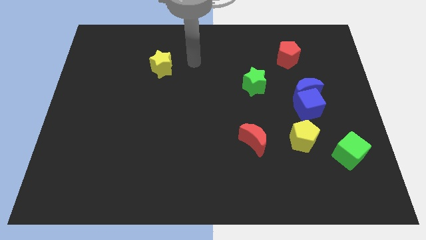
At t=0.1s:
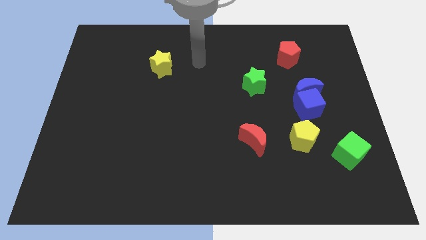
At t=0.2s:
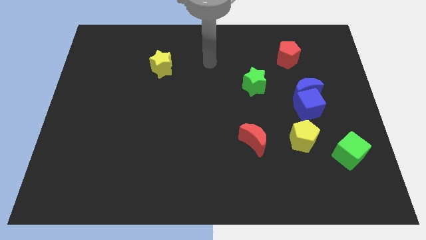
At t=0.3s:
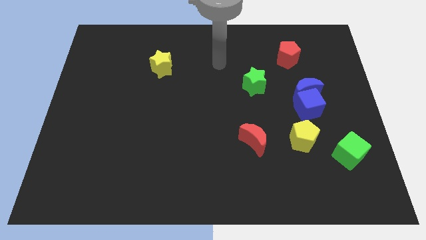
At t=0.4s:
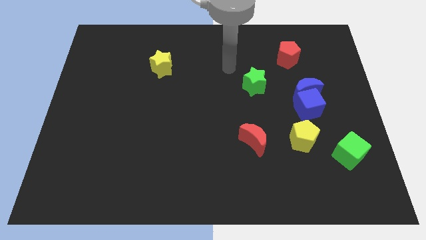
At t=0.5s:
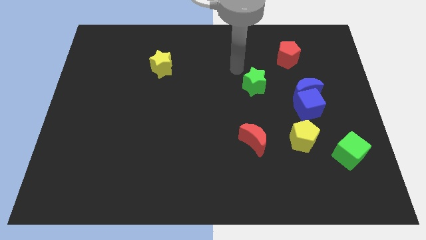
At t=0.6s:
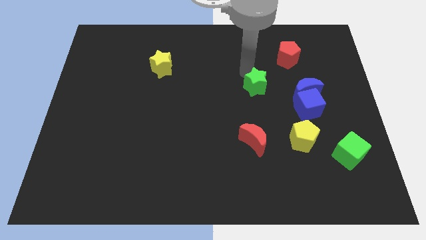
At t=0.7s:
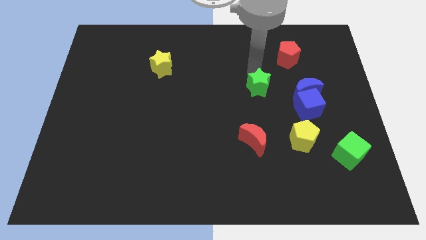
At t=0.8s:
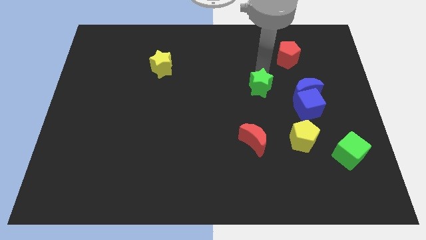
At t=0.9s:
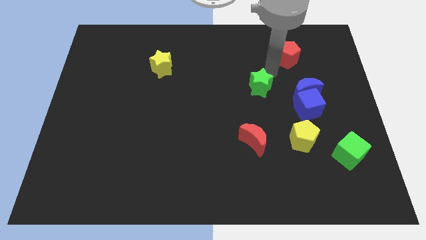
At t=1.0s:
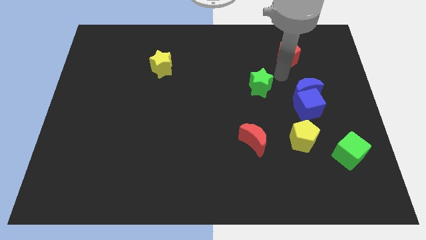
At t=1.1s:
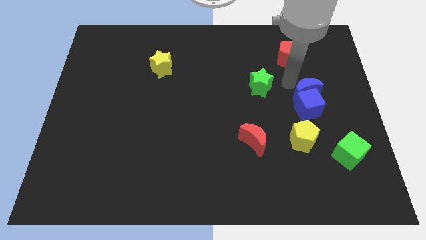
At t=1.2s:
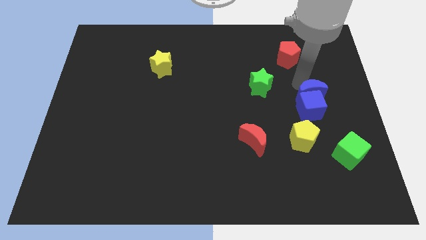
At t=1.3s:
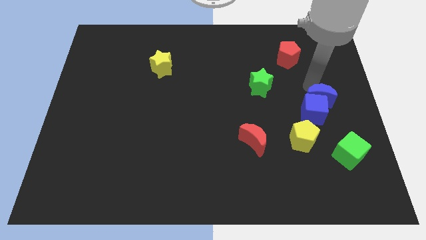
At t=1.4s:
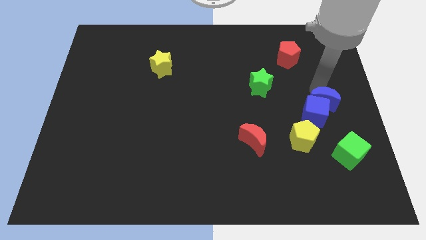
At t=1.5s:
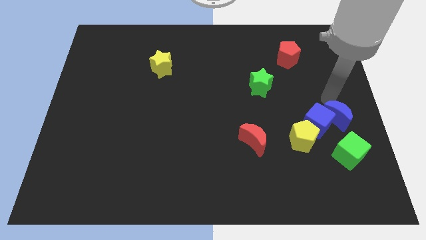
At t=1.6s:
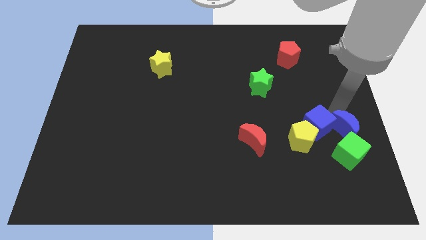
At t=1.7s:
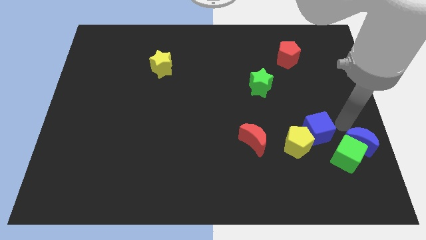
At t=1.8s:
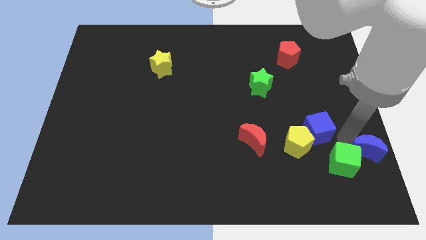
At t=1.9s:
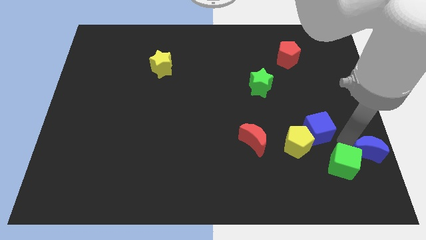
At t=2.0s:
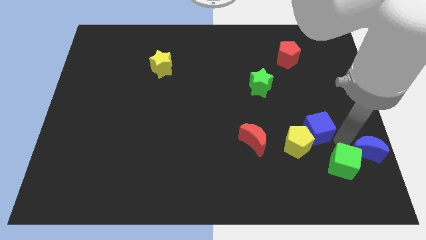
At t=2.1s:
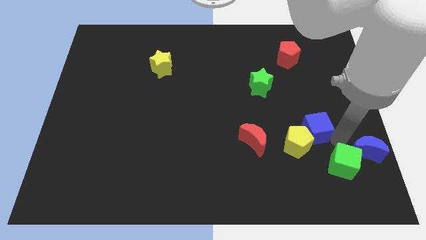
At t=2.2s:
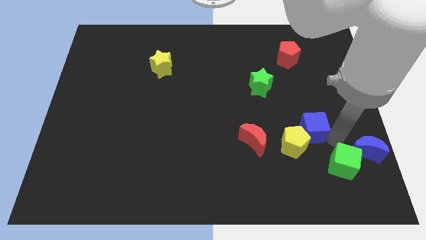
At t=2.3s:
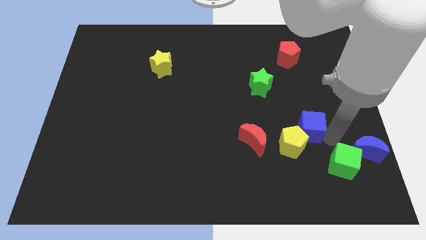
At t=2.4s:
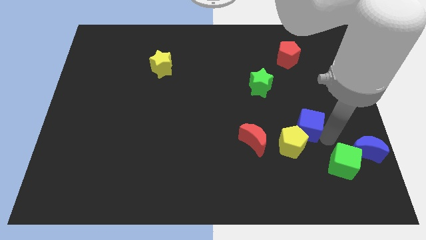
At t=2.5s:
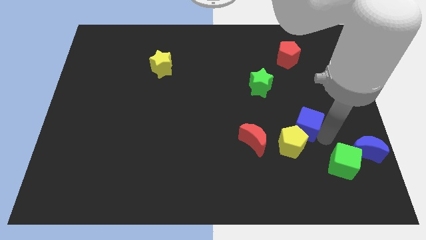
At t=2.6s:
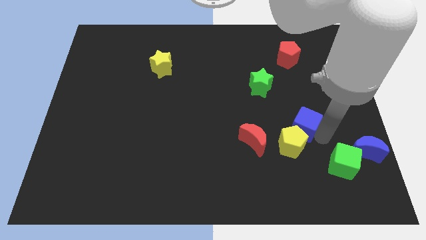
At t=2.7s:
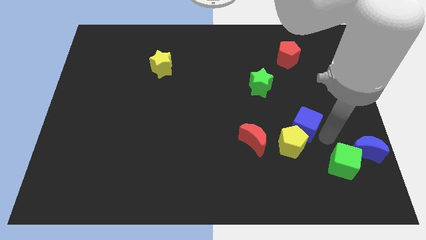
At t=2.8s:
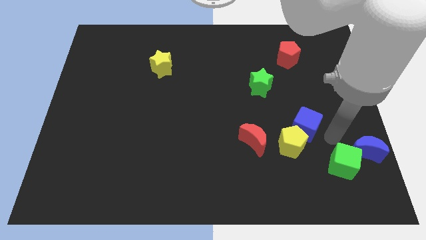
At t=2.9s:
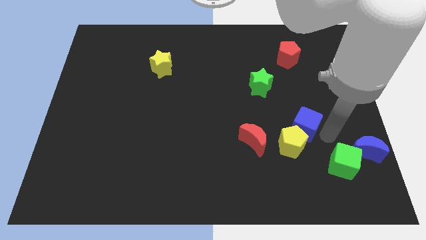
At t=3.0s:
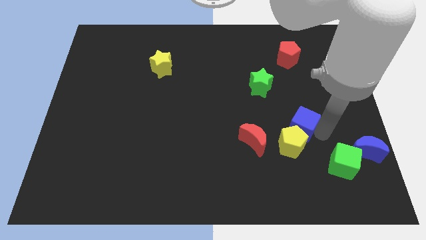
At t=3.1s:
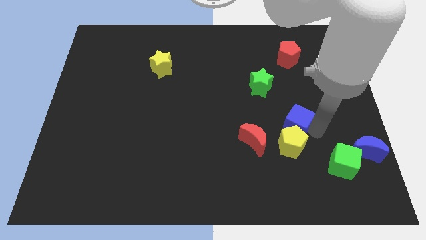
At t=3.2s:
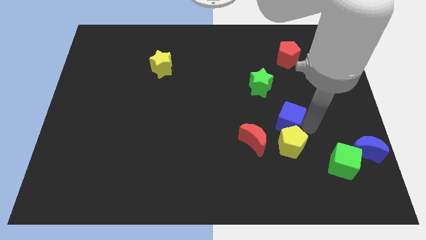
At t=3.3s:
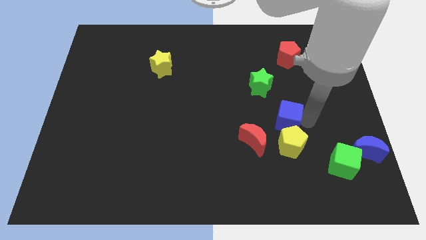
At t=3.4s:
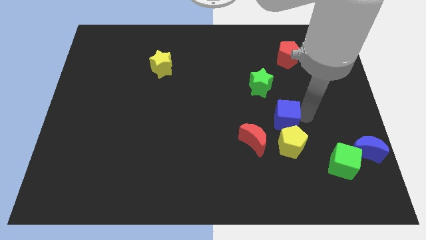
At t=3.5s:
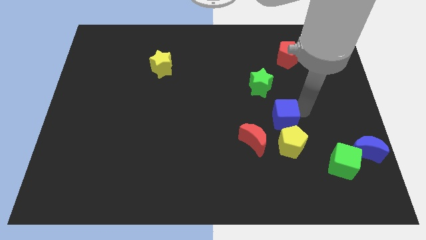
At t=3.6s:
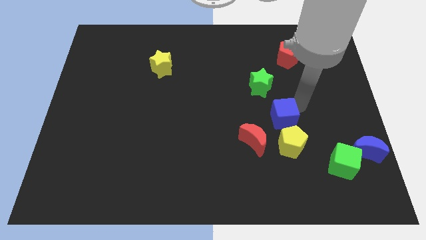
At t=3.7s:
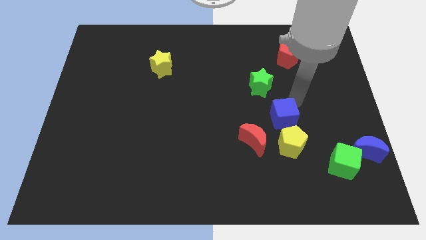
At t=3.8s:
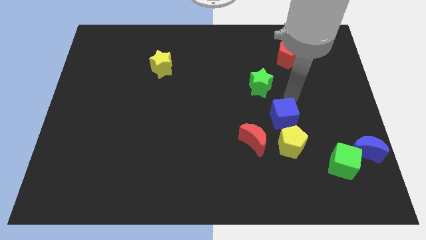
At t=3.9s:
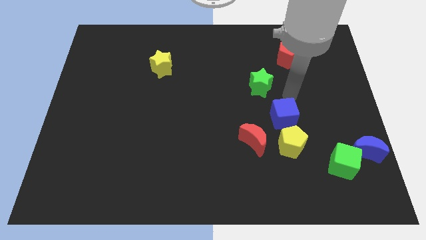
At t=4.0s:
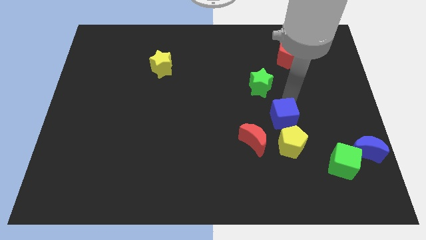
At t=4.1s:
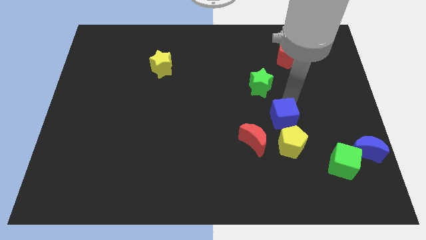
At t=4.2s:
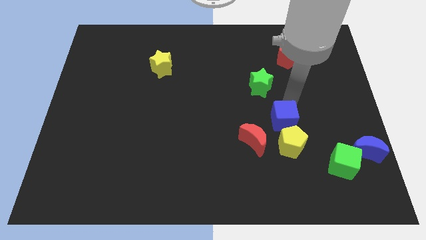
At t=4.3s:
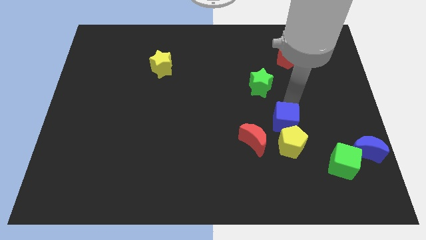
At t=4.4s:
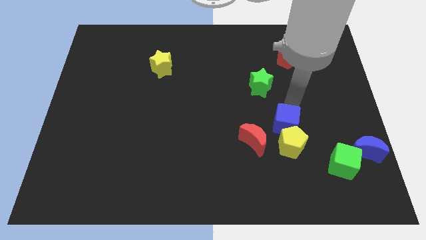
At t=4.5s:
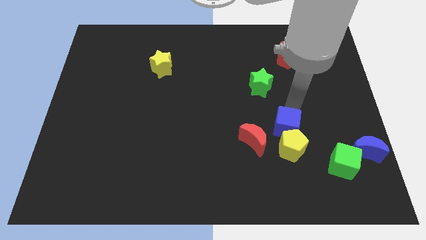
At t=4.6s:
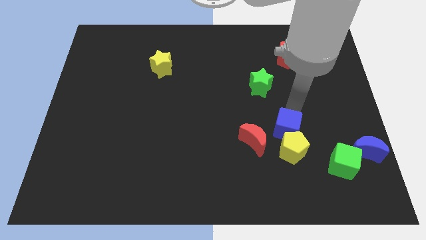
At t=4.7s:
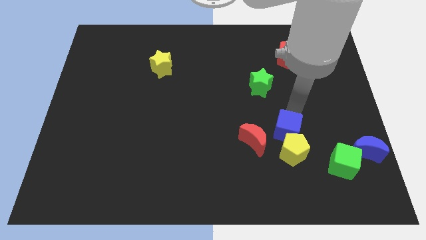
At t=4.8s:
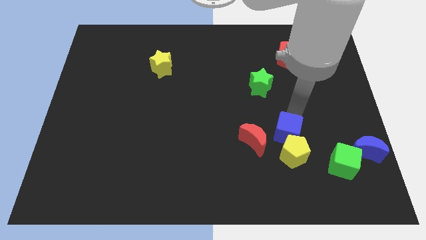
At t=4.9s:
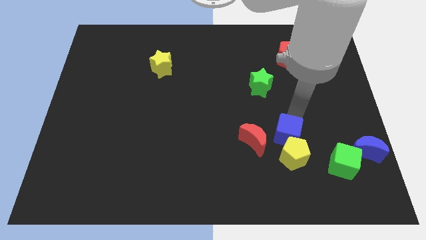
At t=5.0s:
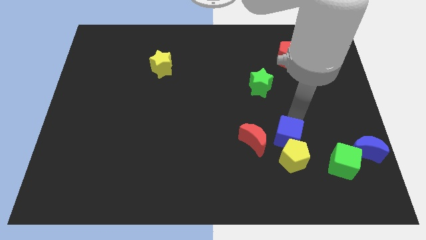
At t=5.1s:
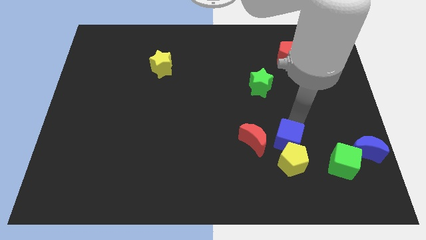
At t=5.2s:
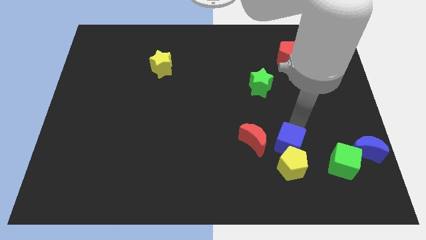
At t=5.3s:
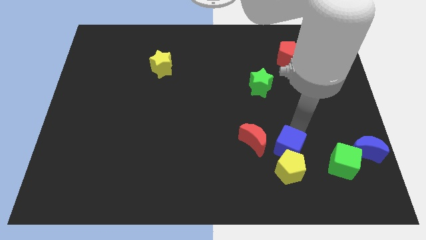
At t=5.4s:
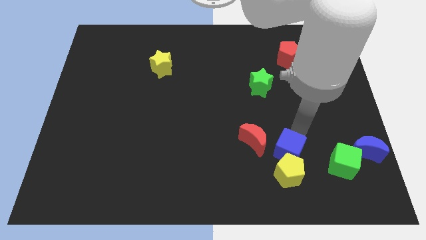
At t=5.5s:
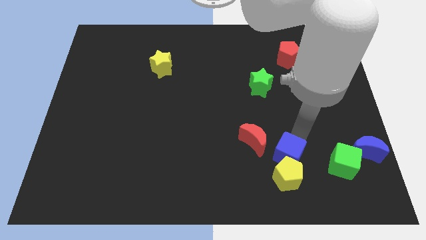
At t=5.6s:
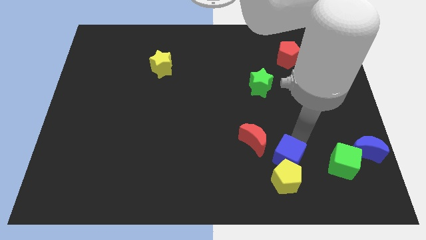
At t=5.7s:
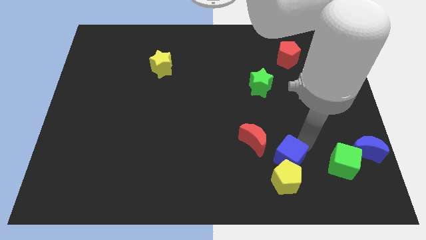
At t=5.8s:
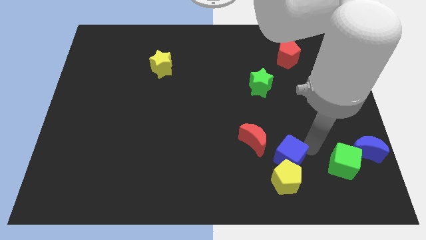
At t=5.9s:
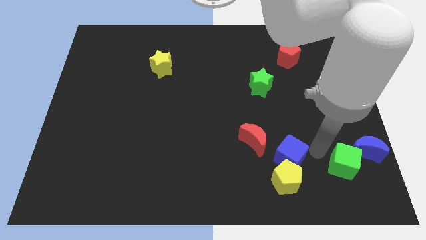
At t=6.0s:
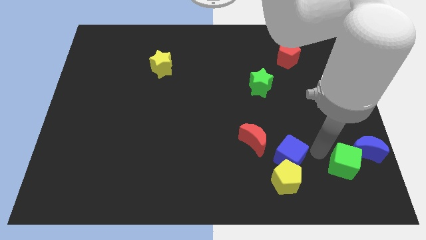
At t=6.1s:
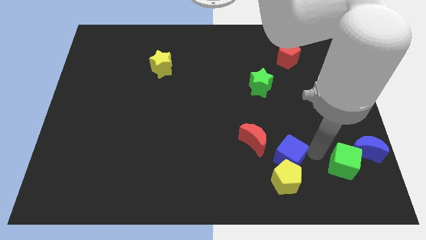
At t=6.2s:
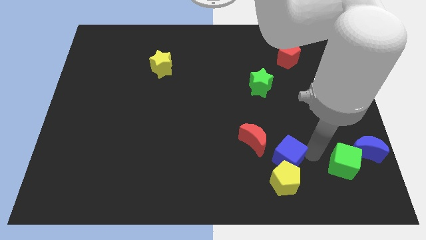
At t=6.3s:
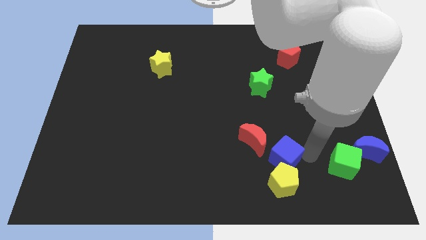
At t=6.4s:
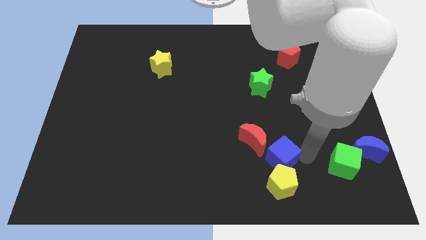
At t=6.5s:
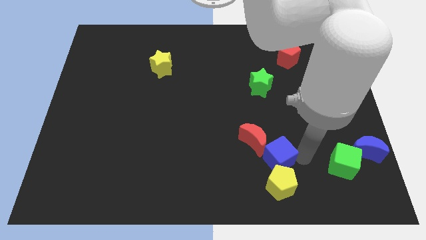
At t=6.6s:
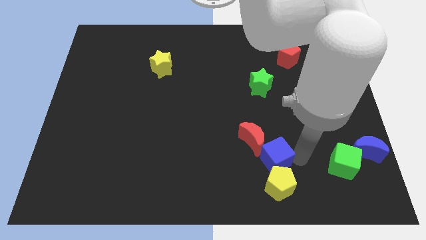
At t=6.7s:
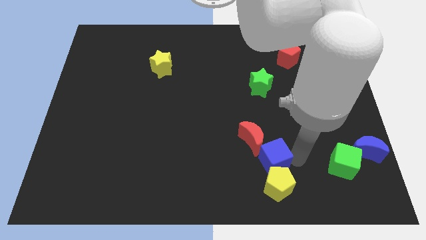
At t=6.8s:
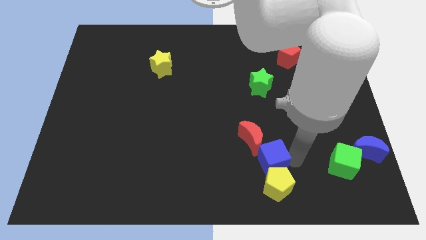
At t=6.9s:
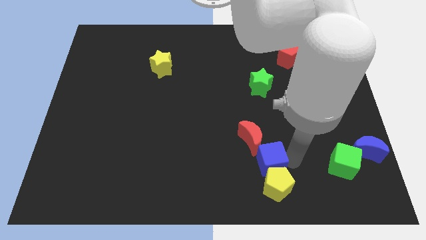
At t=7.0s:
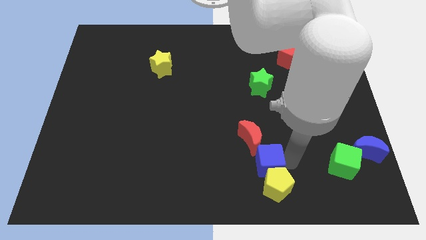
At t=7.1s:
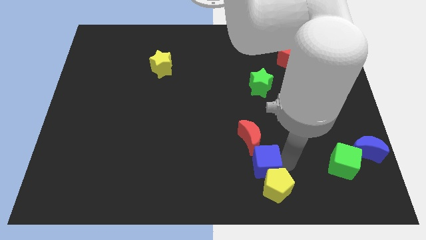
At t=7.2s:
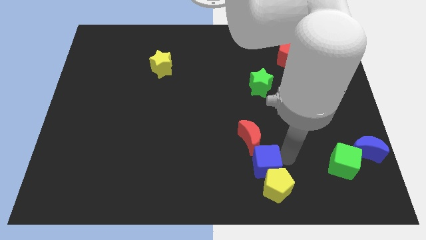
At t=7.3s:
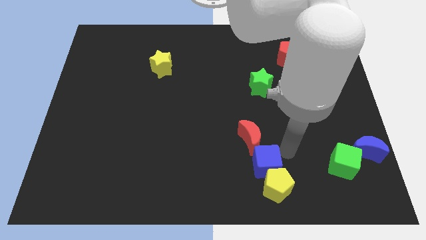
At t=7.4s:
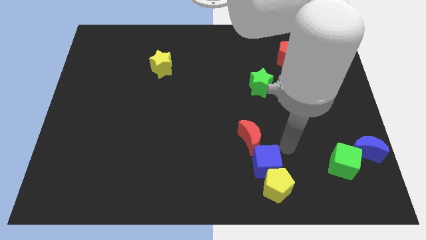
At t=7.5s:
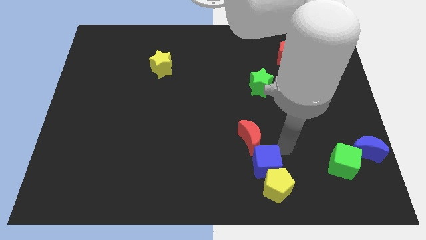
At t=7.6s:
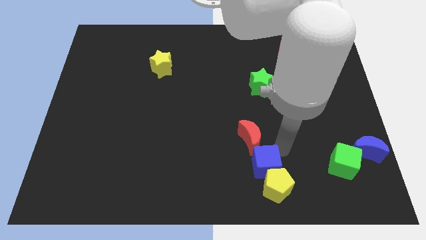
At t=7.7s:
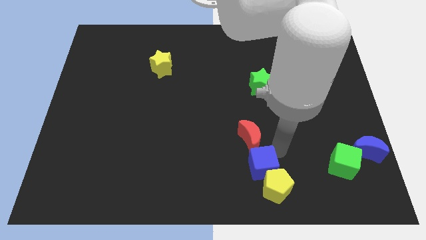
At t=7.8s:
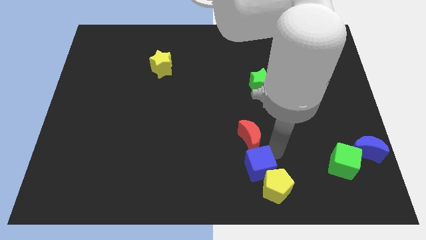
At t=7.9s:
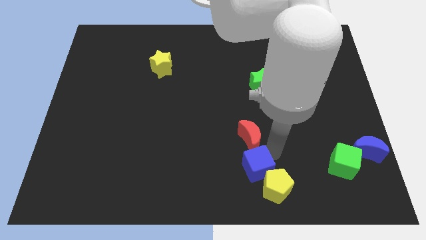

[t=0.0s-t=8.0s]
move the blue cube to the bottom
